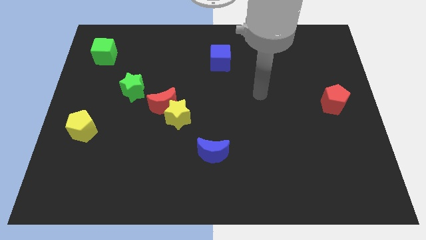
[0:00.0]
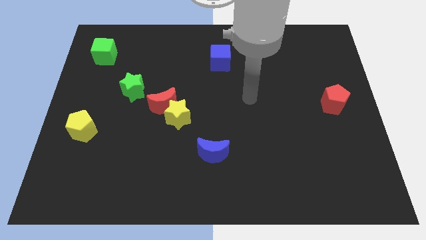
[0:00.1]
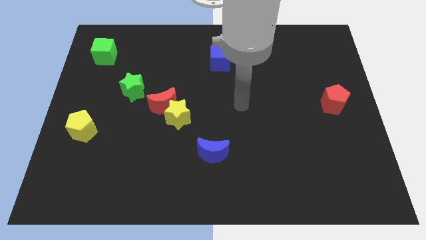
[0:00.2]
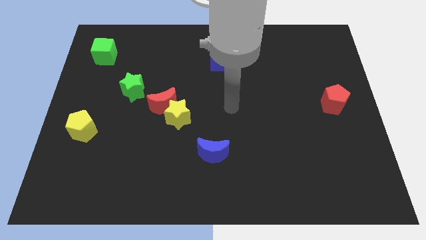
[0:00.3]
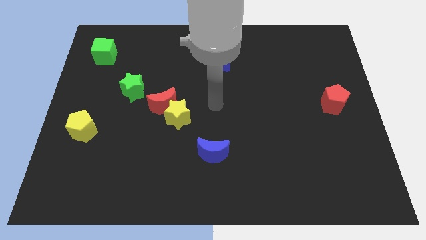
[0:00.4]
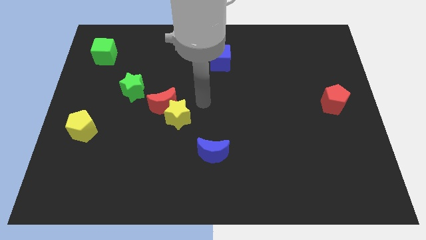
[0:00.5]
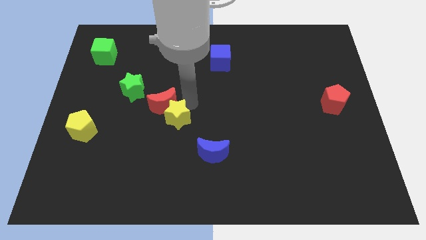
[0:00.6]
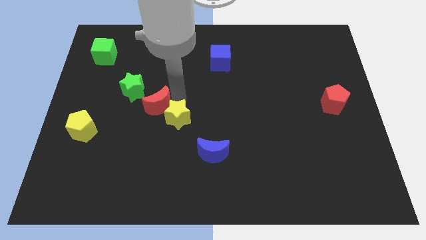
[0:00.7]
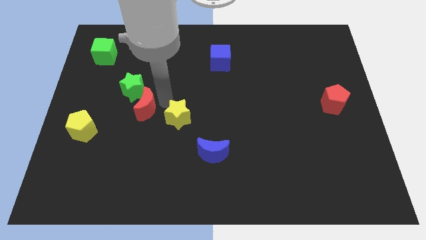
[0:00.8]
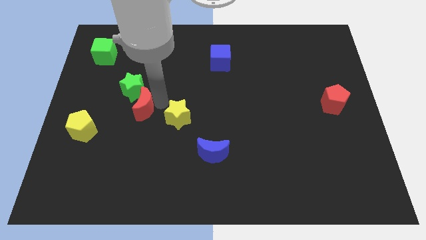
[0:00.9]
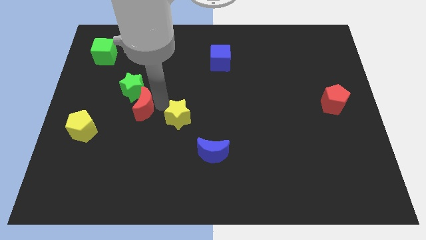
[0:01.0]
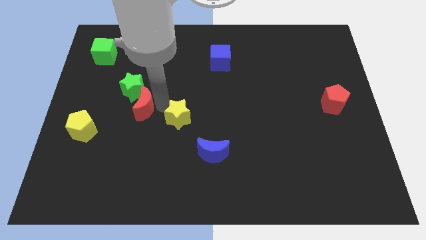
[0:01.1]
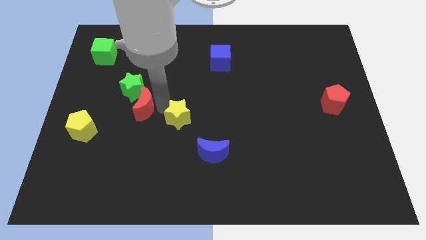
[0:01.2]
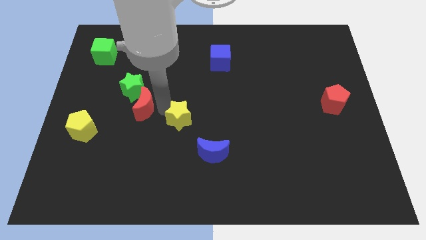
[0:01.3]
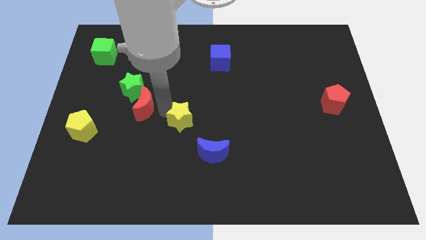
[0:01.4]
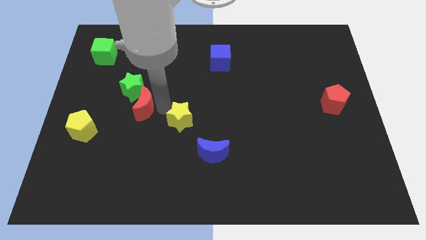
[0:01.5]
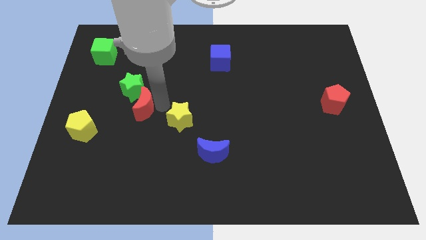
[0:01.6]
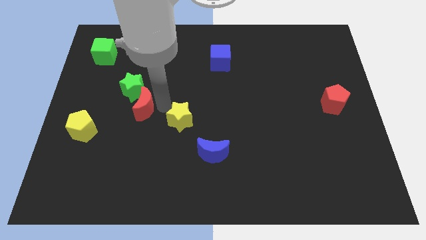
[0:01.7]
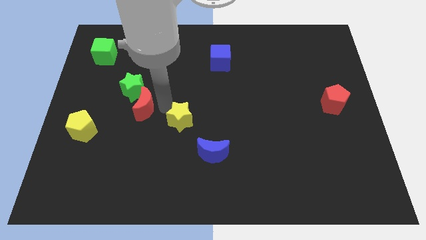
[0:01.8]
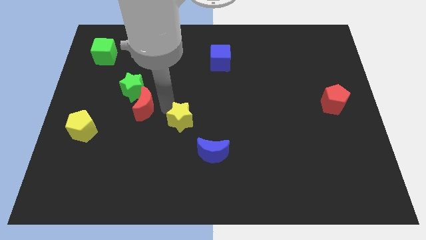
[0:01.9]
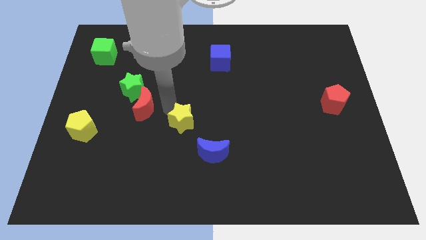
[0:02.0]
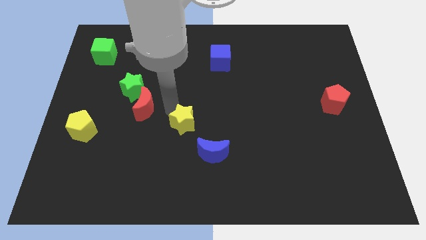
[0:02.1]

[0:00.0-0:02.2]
pull the yellow star apart from the red moon

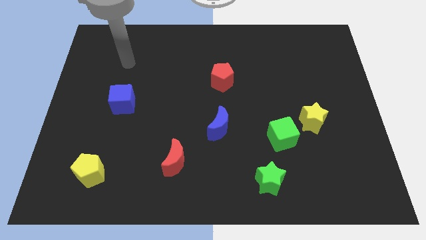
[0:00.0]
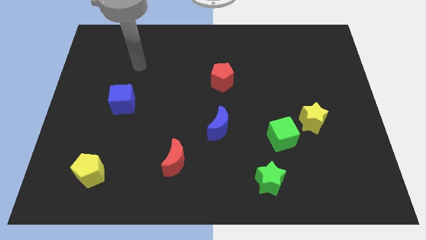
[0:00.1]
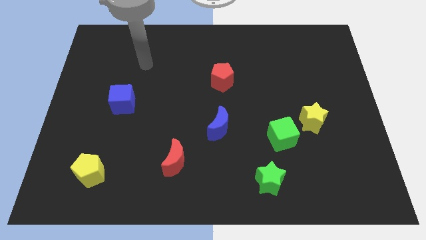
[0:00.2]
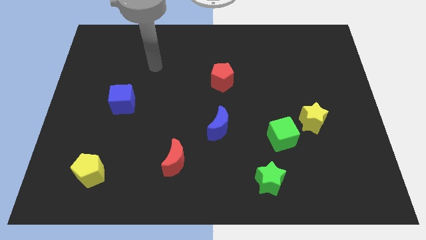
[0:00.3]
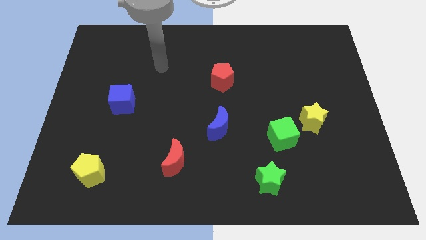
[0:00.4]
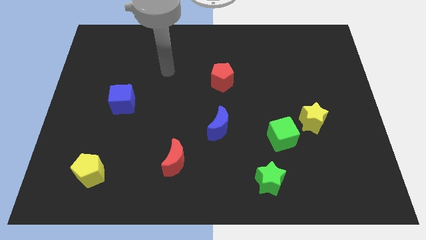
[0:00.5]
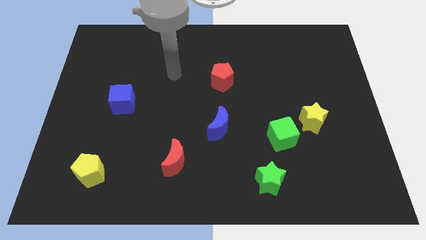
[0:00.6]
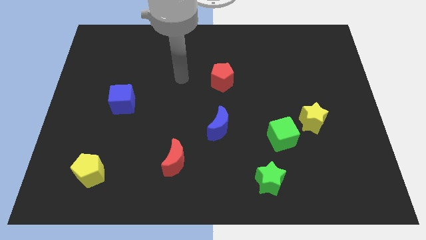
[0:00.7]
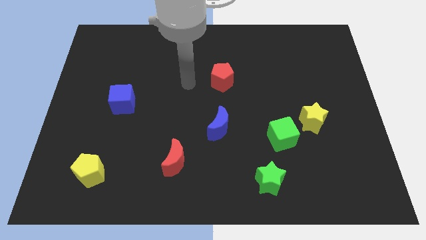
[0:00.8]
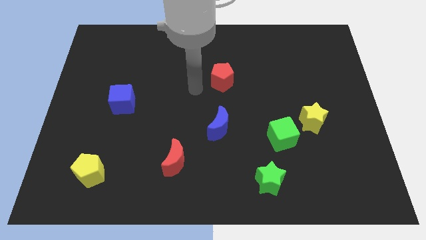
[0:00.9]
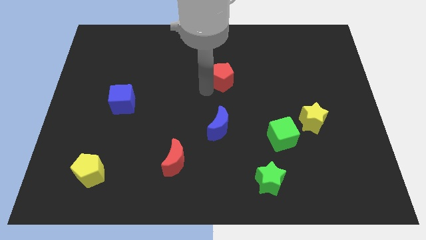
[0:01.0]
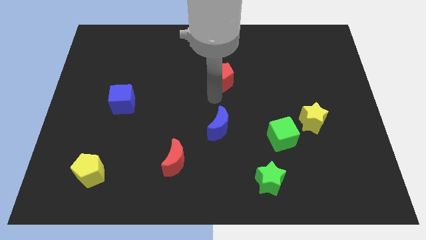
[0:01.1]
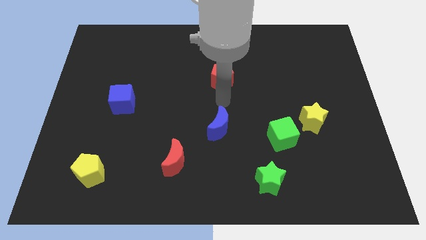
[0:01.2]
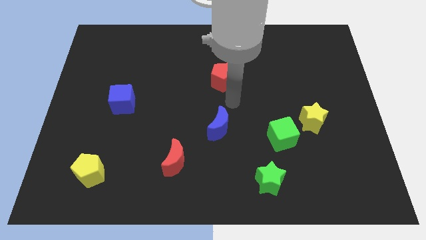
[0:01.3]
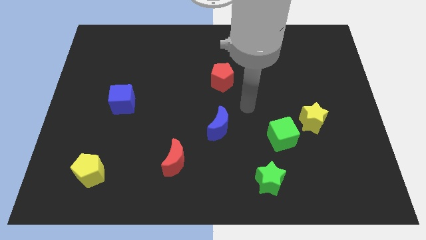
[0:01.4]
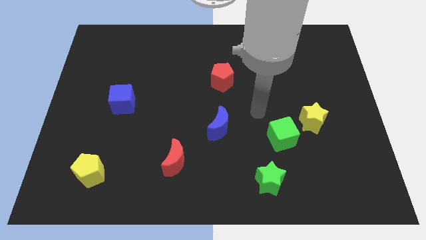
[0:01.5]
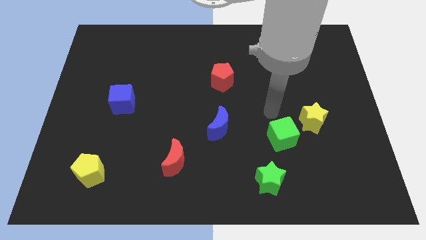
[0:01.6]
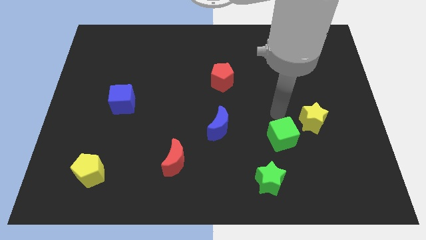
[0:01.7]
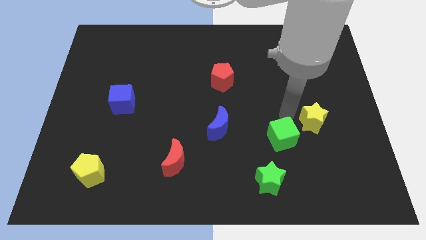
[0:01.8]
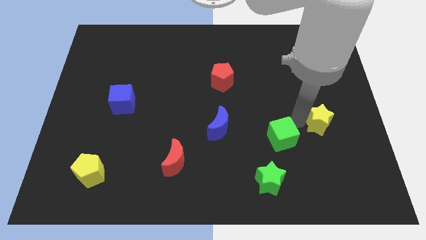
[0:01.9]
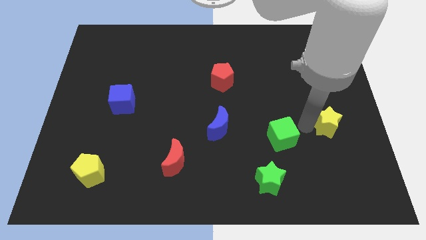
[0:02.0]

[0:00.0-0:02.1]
separate the green cube from the yellow star

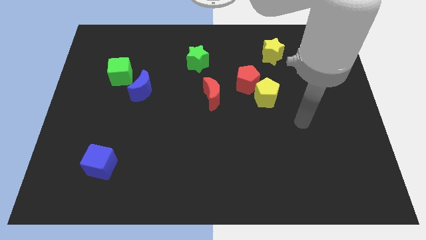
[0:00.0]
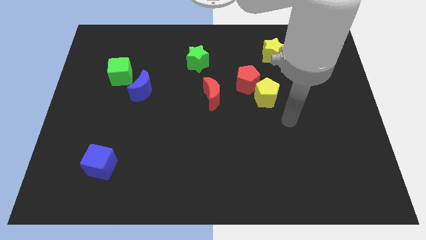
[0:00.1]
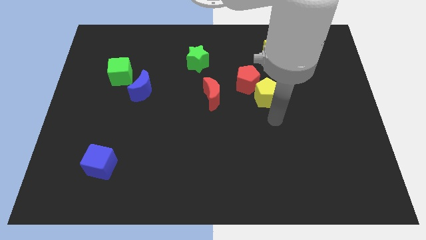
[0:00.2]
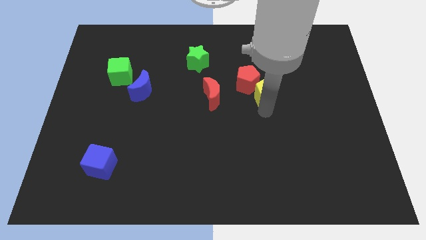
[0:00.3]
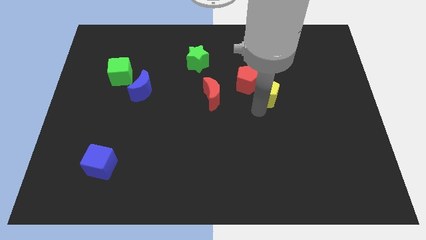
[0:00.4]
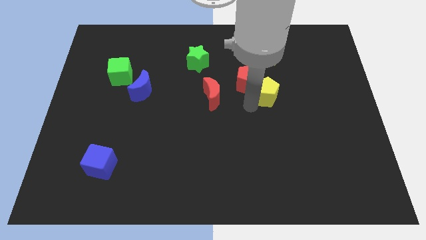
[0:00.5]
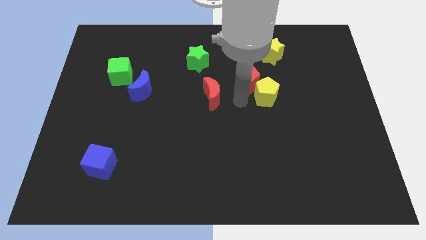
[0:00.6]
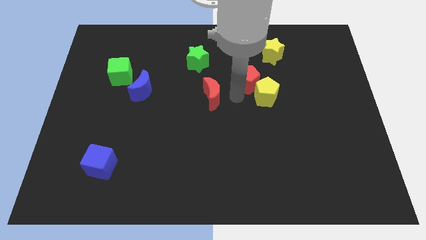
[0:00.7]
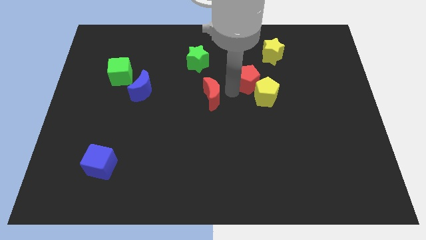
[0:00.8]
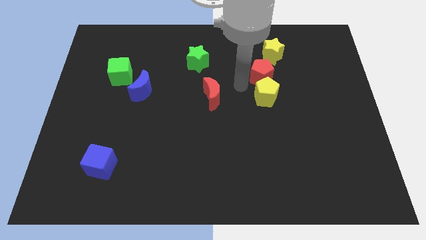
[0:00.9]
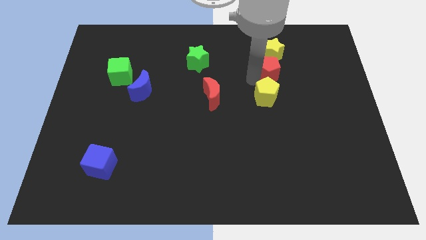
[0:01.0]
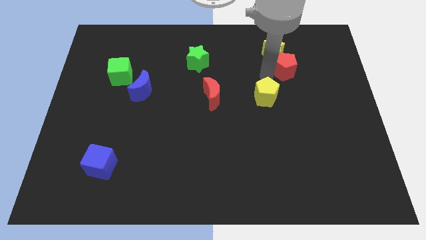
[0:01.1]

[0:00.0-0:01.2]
separate the yellow pentagon from the red pentagon

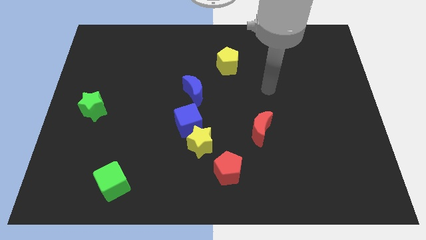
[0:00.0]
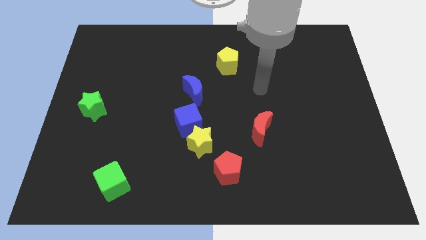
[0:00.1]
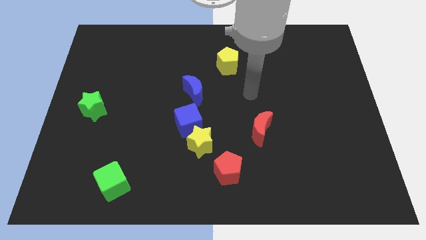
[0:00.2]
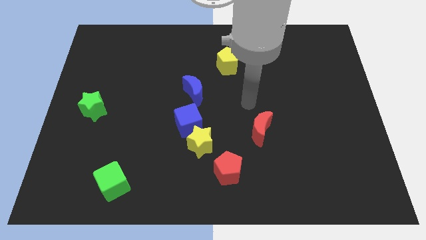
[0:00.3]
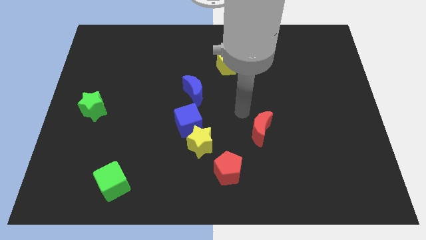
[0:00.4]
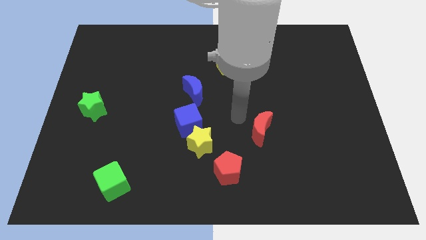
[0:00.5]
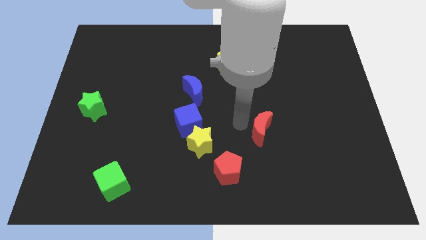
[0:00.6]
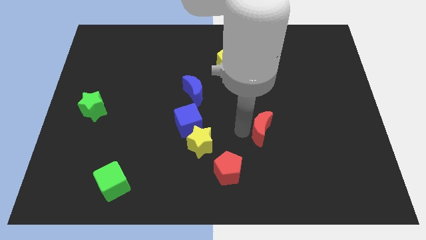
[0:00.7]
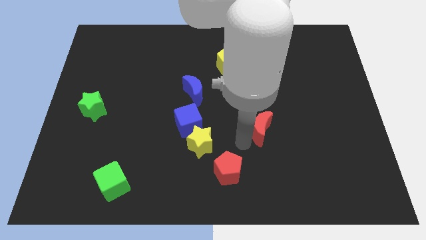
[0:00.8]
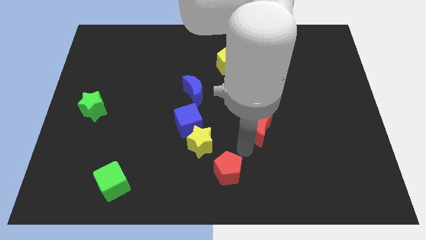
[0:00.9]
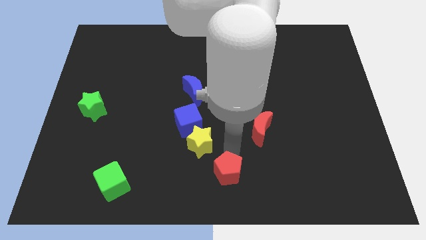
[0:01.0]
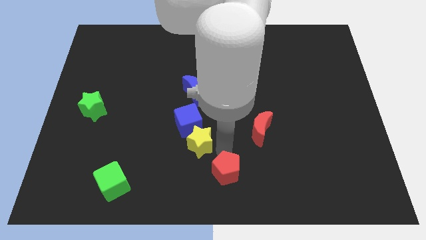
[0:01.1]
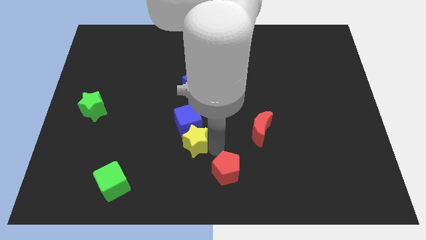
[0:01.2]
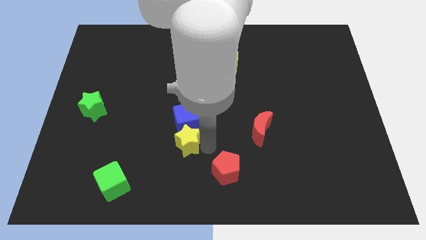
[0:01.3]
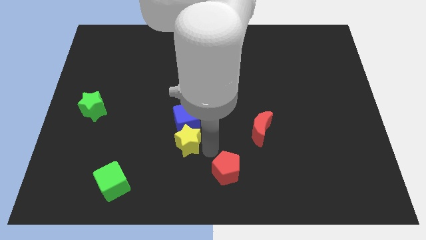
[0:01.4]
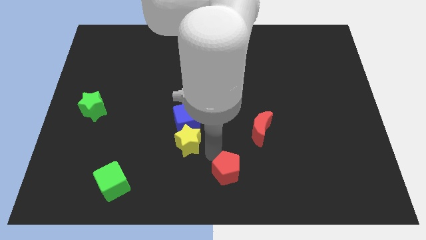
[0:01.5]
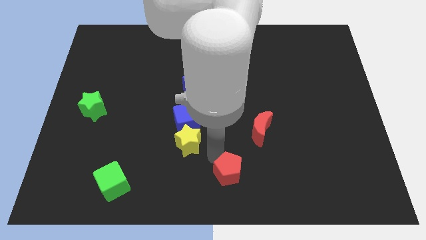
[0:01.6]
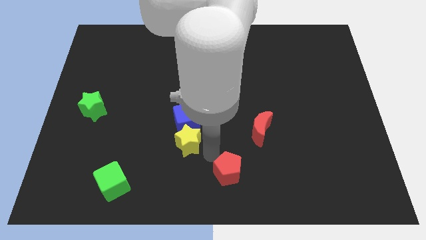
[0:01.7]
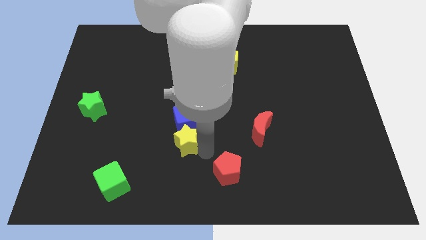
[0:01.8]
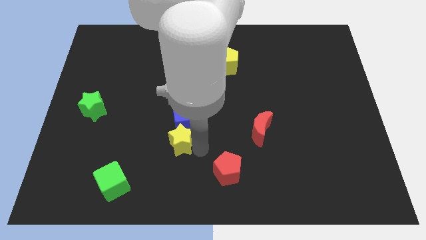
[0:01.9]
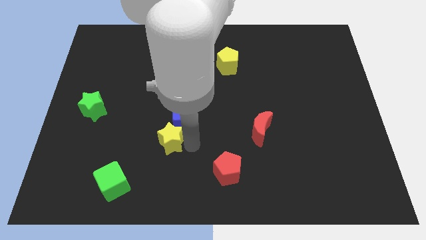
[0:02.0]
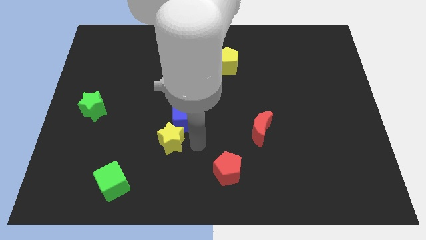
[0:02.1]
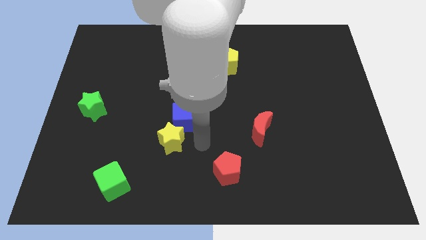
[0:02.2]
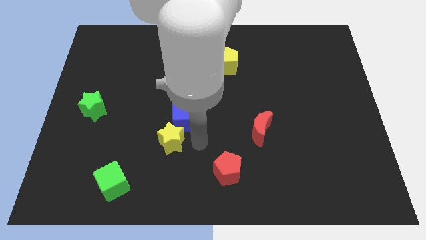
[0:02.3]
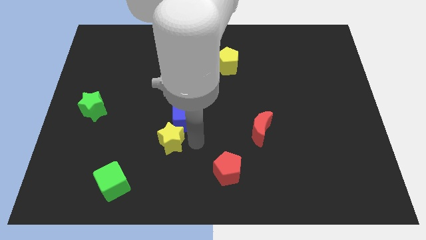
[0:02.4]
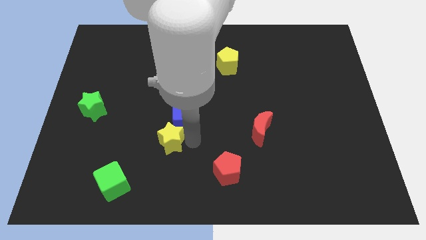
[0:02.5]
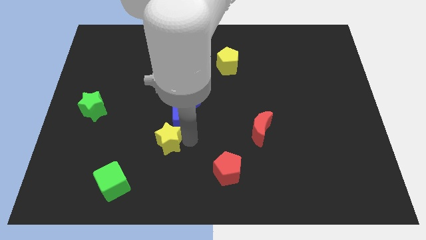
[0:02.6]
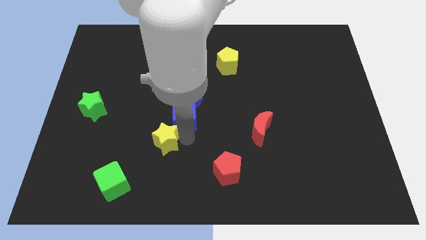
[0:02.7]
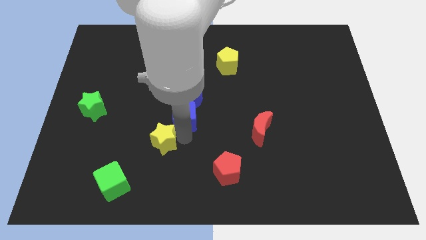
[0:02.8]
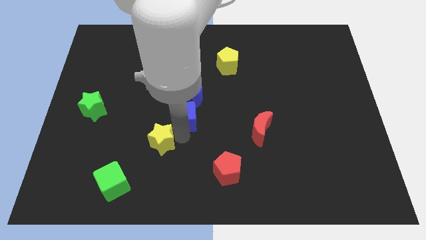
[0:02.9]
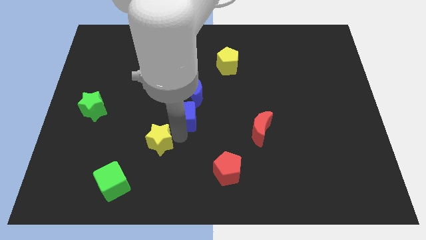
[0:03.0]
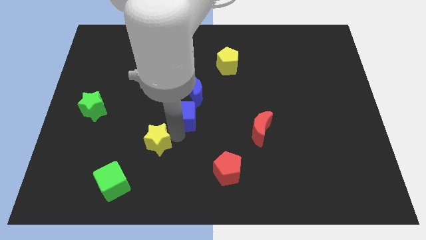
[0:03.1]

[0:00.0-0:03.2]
pull the yellow star apart from the blue cube and red pentagon

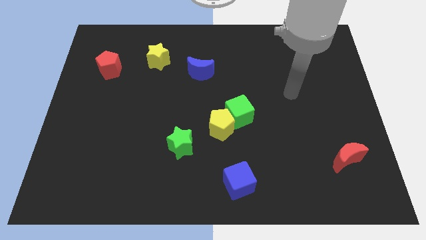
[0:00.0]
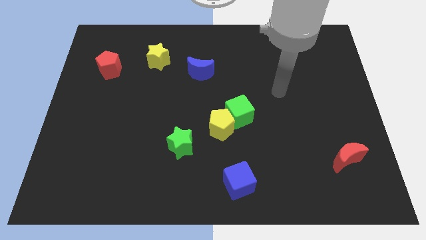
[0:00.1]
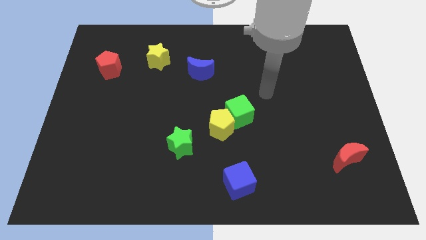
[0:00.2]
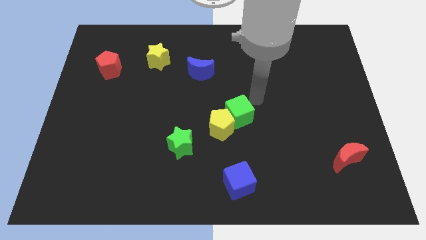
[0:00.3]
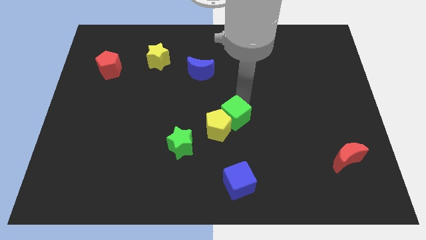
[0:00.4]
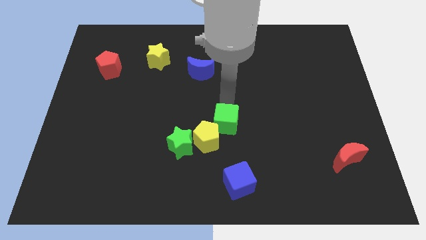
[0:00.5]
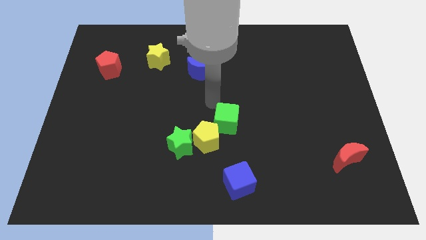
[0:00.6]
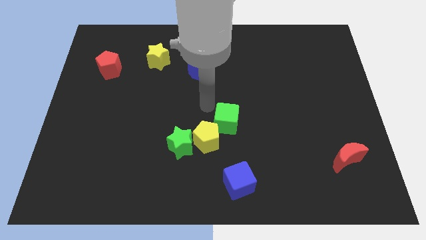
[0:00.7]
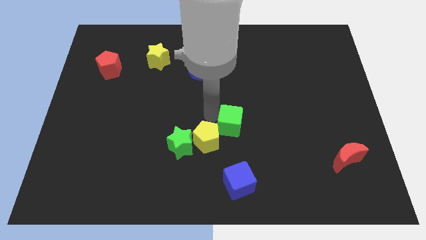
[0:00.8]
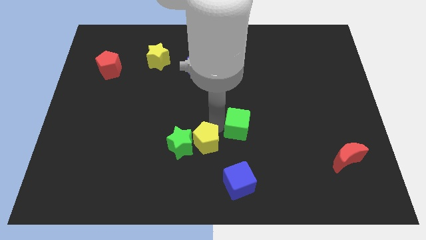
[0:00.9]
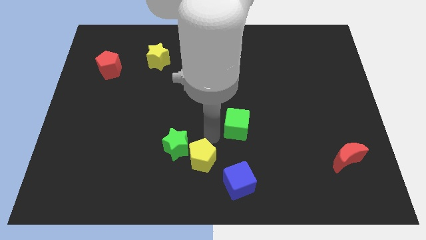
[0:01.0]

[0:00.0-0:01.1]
pull the green cube apart from the yellow pentagon
